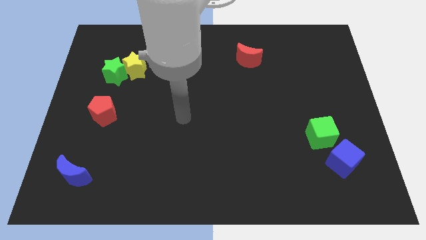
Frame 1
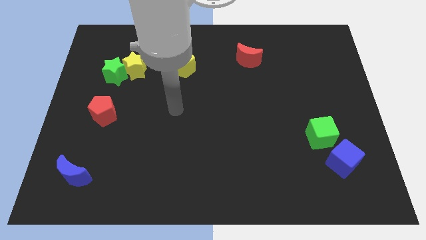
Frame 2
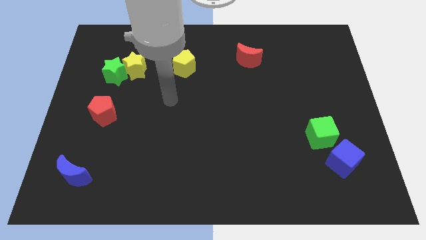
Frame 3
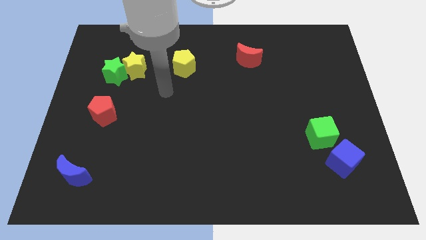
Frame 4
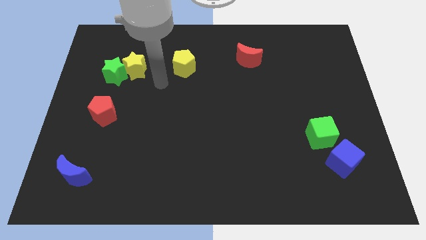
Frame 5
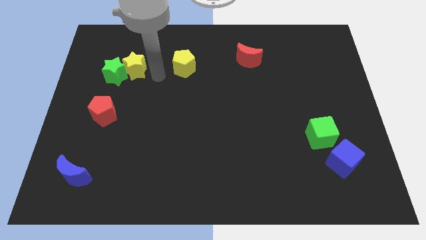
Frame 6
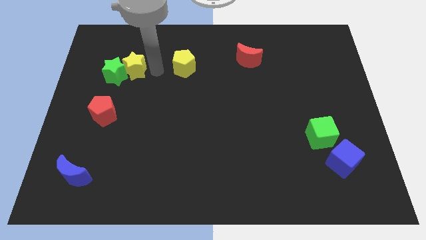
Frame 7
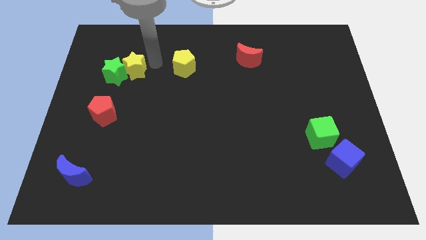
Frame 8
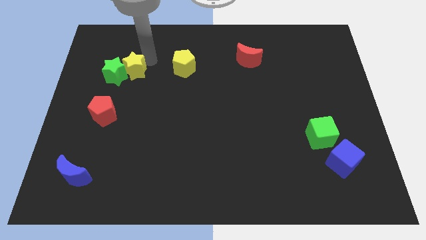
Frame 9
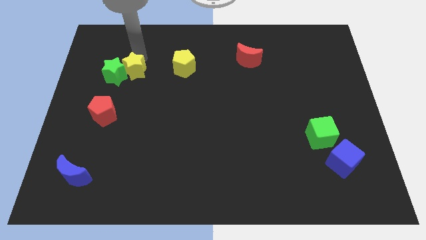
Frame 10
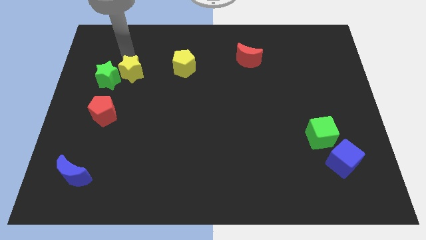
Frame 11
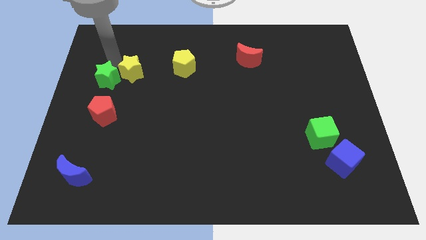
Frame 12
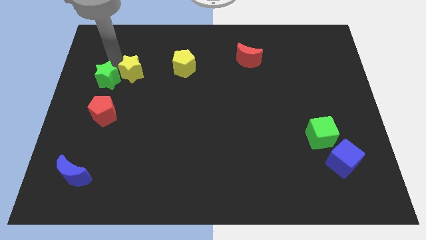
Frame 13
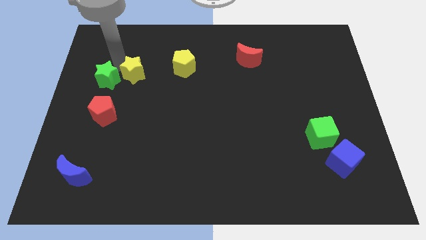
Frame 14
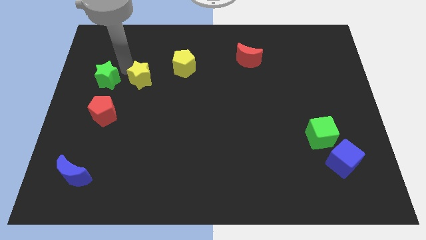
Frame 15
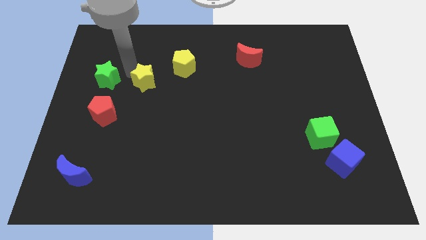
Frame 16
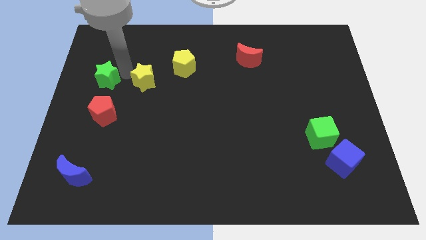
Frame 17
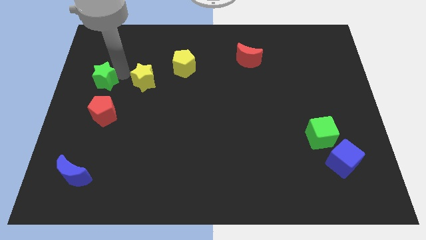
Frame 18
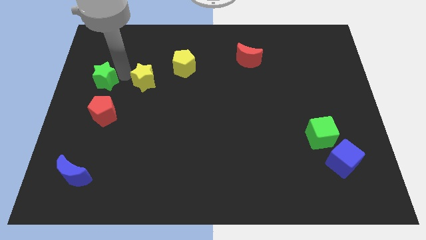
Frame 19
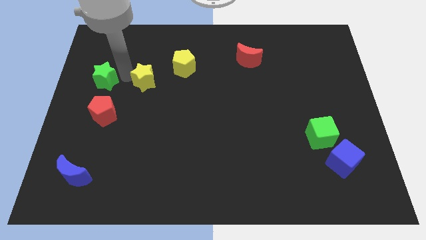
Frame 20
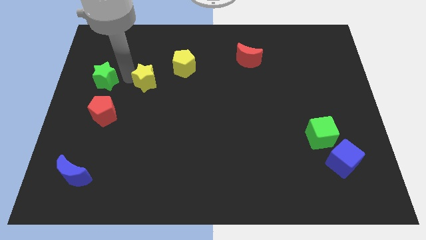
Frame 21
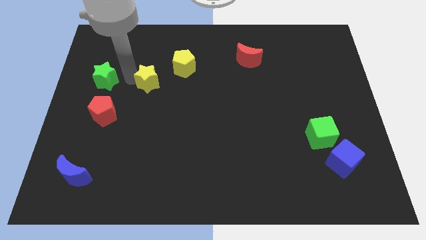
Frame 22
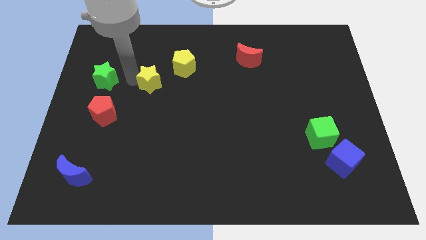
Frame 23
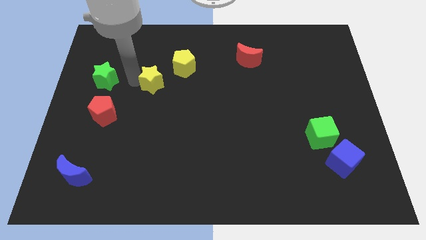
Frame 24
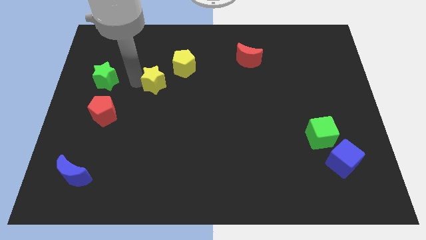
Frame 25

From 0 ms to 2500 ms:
move the yellow star diagonally downwards and to the right a bit

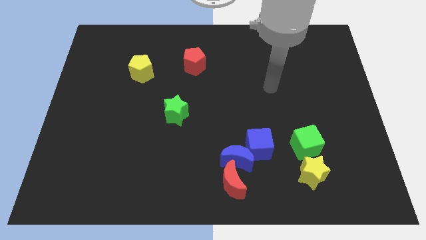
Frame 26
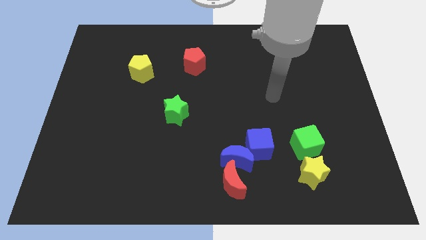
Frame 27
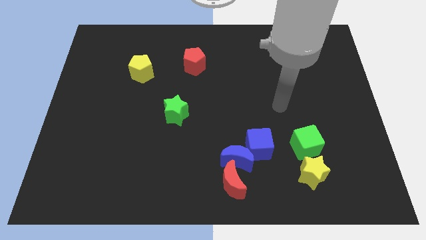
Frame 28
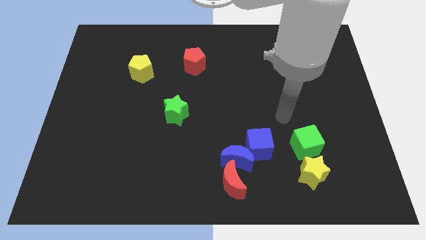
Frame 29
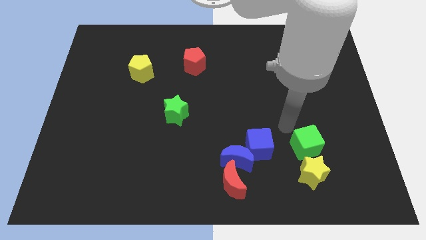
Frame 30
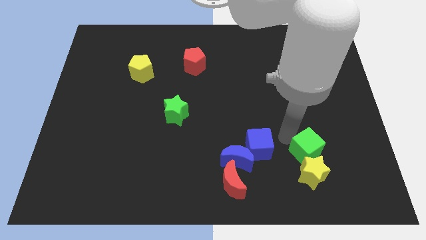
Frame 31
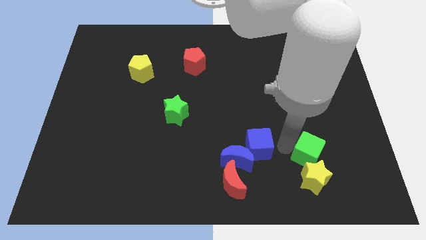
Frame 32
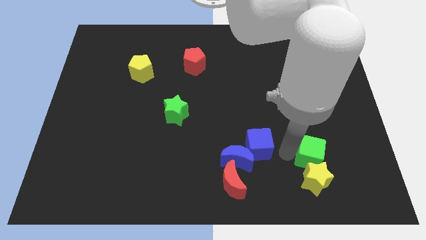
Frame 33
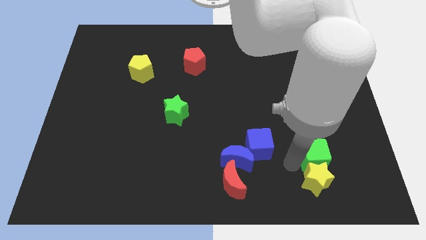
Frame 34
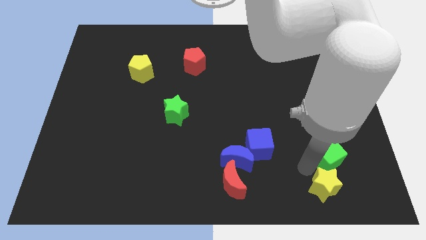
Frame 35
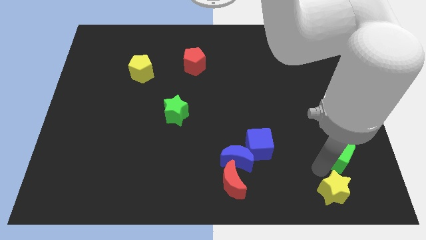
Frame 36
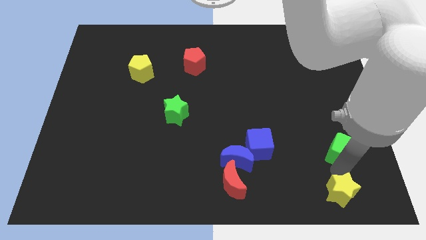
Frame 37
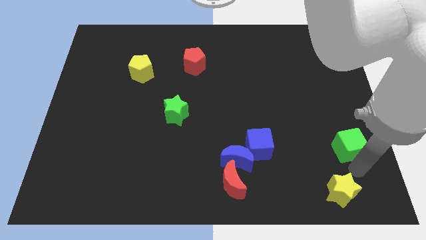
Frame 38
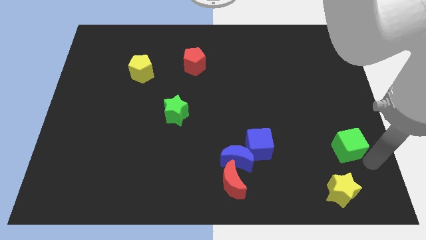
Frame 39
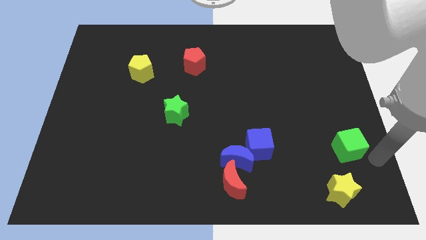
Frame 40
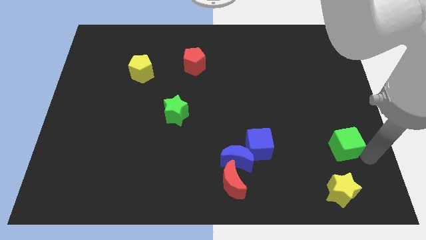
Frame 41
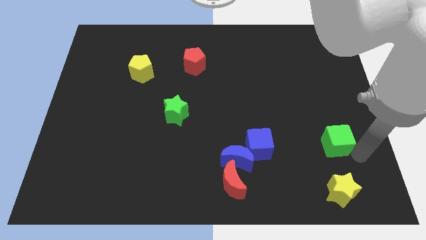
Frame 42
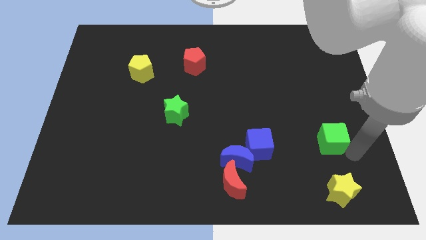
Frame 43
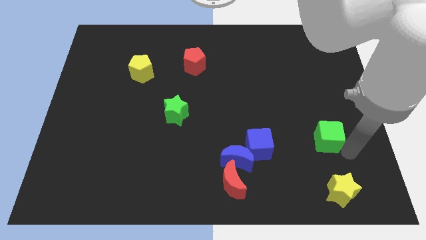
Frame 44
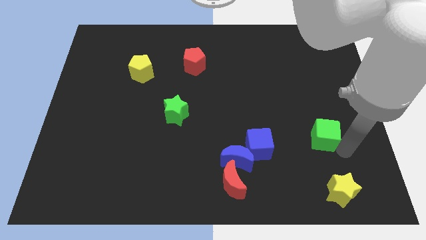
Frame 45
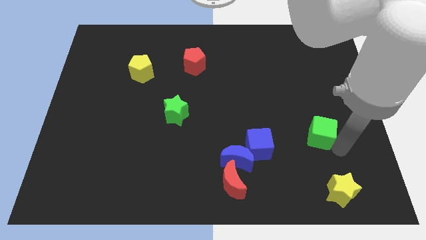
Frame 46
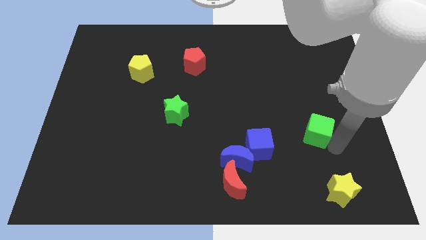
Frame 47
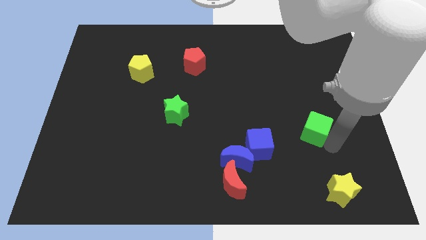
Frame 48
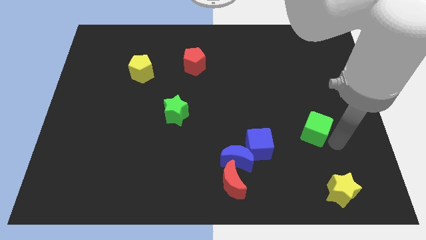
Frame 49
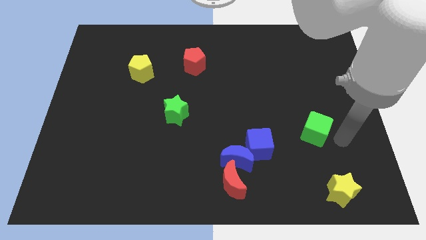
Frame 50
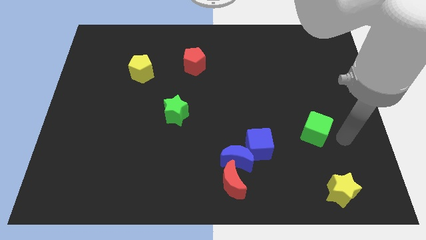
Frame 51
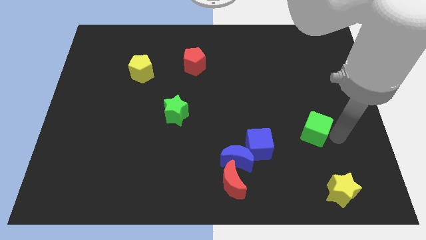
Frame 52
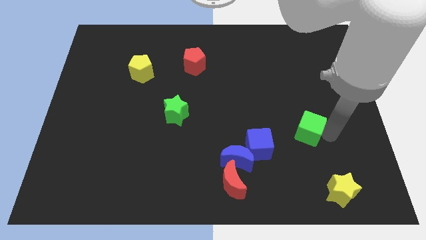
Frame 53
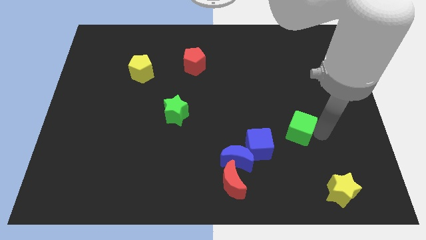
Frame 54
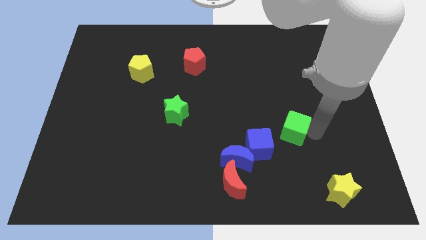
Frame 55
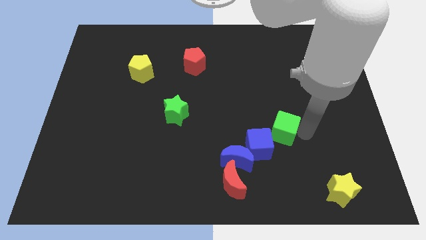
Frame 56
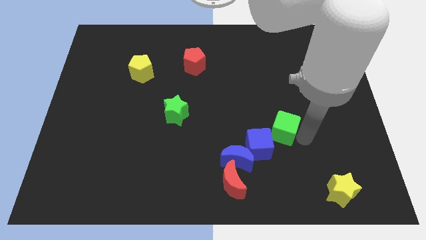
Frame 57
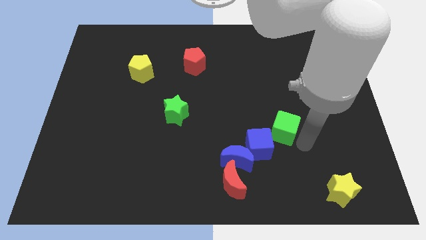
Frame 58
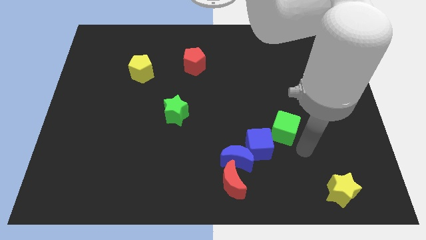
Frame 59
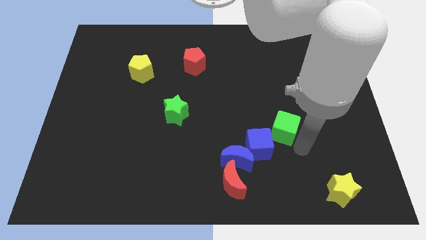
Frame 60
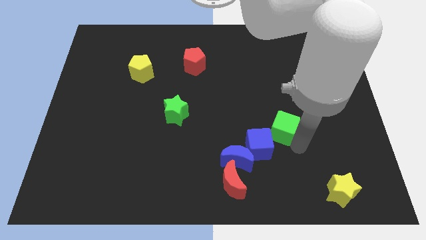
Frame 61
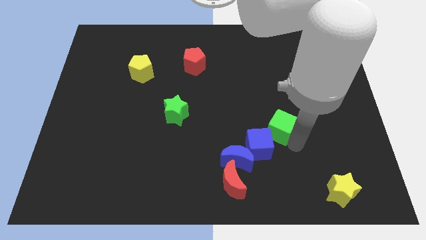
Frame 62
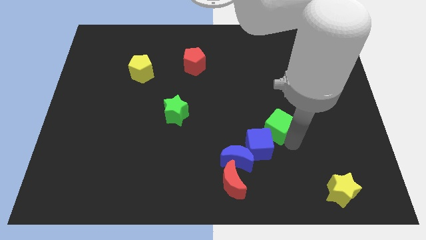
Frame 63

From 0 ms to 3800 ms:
move the green cube diagonally upwards and left somewhat

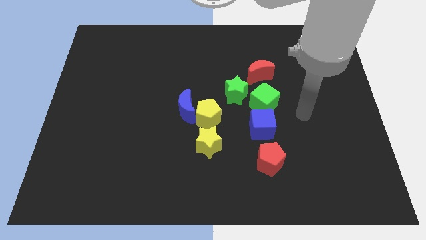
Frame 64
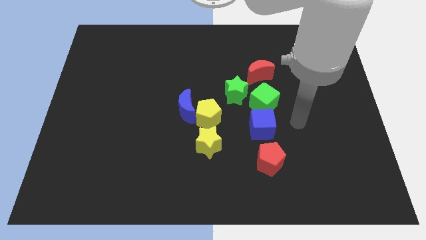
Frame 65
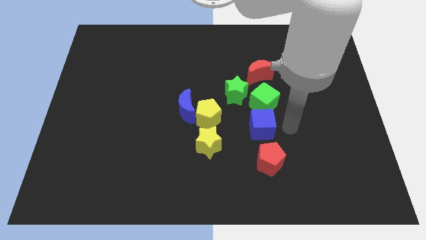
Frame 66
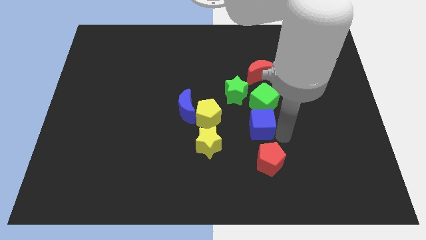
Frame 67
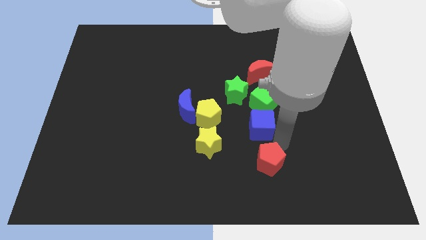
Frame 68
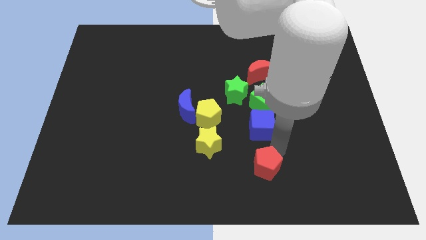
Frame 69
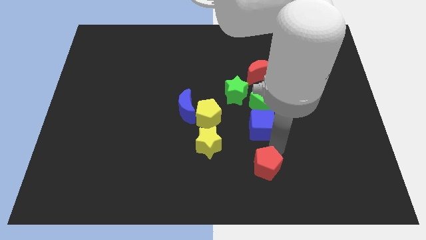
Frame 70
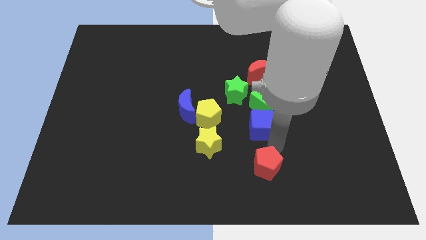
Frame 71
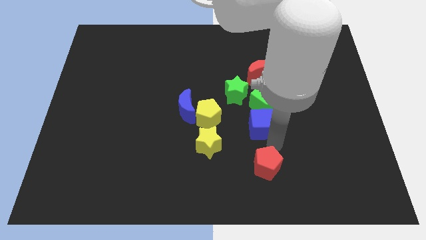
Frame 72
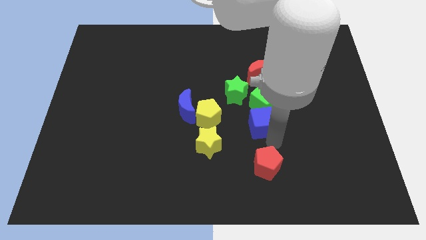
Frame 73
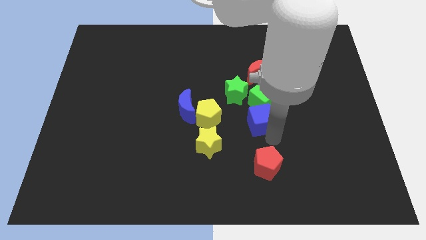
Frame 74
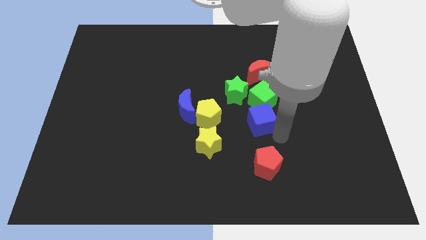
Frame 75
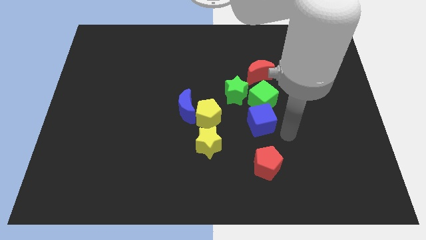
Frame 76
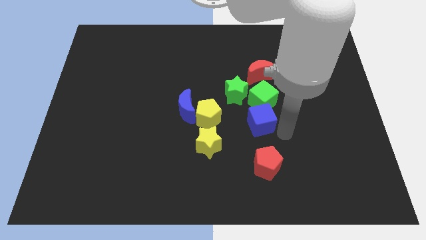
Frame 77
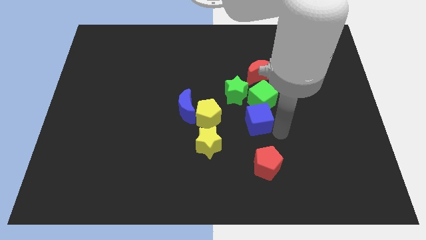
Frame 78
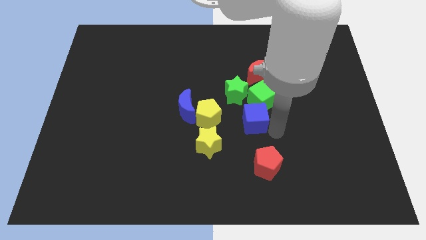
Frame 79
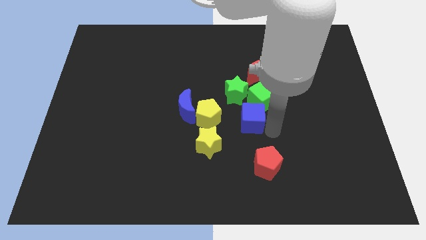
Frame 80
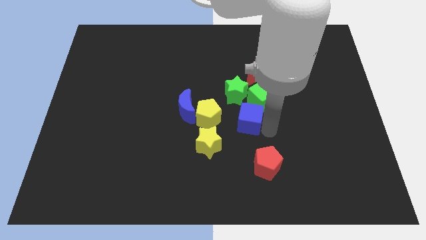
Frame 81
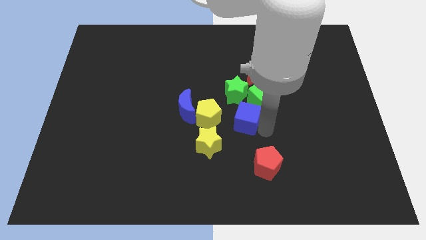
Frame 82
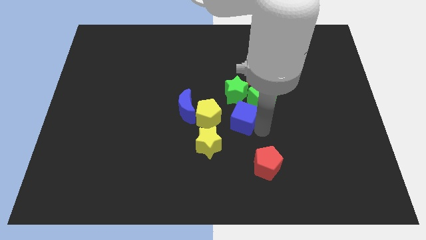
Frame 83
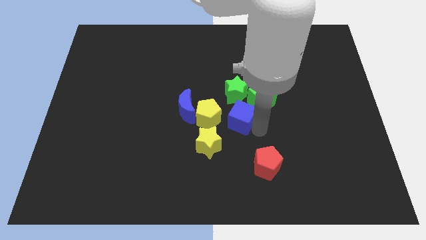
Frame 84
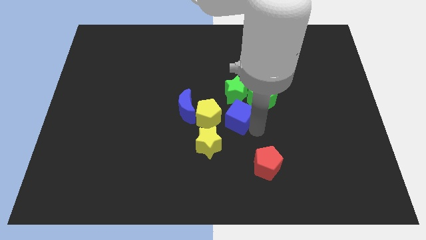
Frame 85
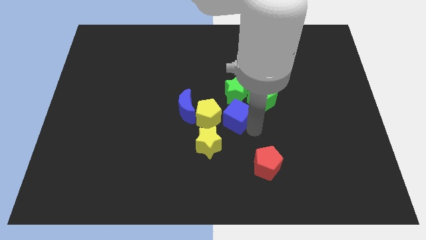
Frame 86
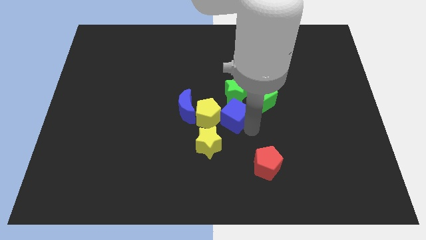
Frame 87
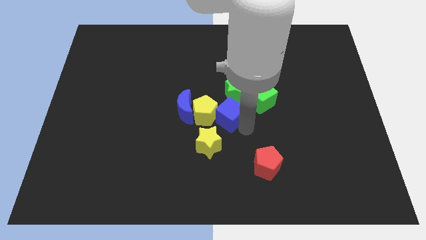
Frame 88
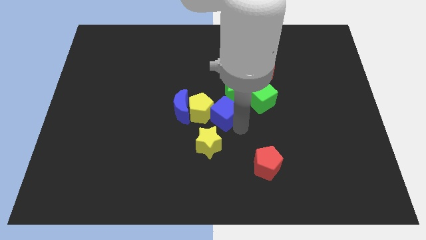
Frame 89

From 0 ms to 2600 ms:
push the blue cube a bit upwards and to the left diagonally
